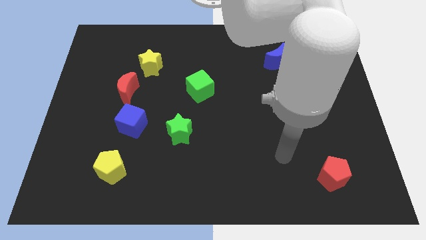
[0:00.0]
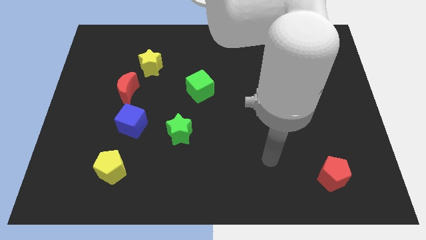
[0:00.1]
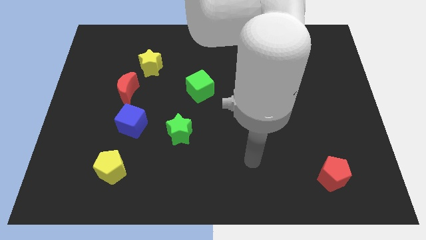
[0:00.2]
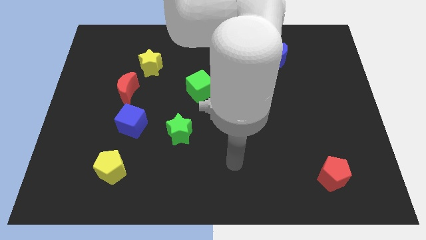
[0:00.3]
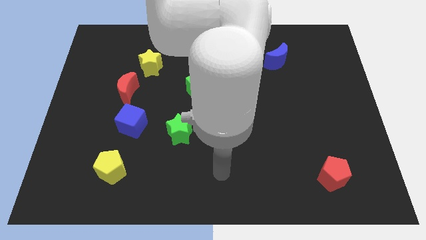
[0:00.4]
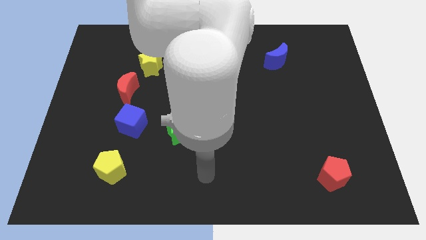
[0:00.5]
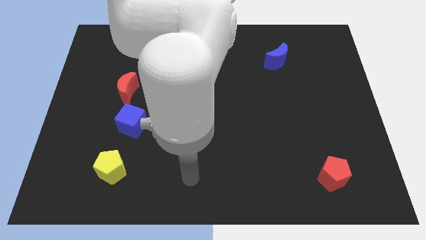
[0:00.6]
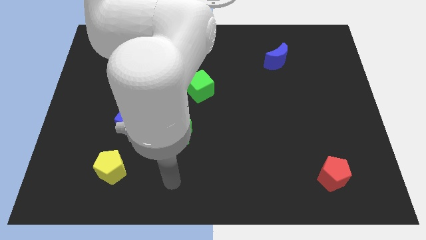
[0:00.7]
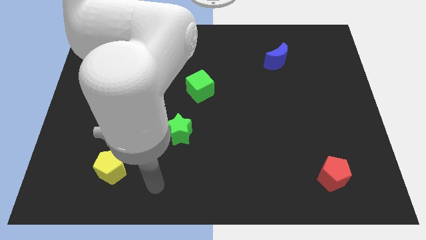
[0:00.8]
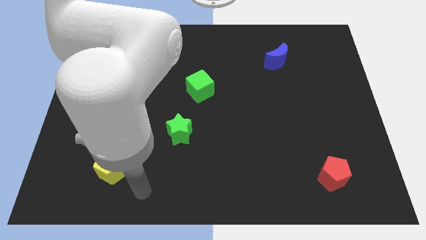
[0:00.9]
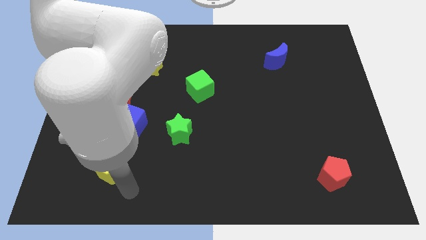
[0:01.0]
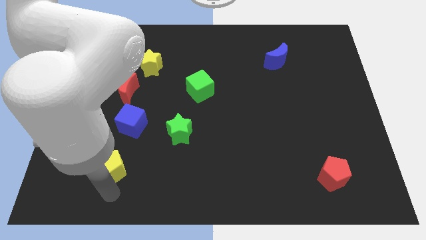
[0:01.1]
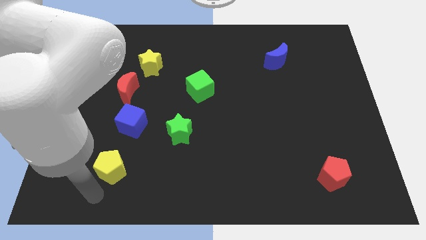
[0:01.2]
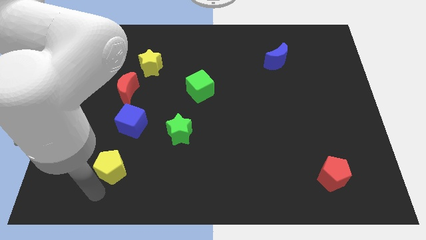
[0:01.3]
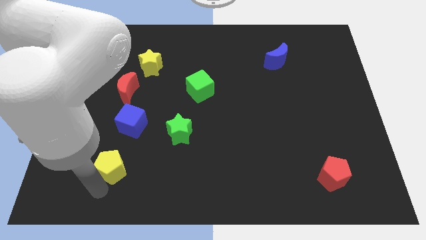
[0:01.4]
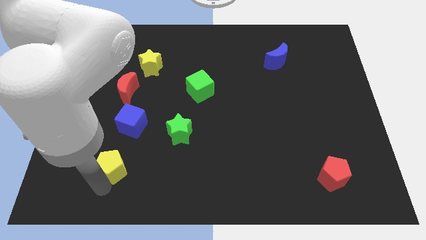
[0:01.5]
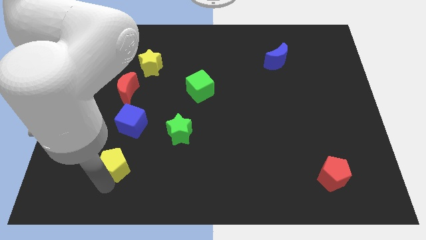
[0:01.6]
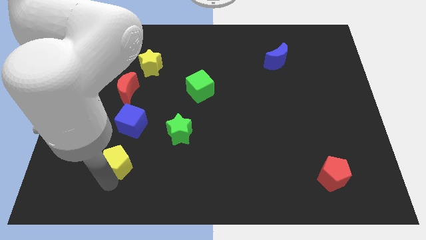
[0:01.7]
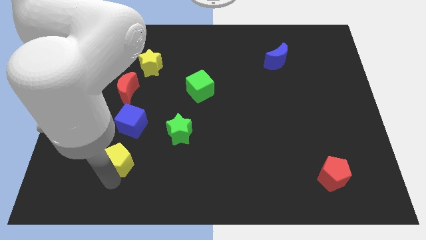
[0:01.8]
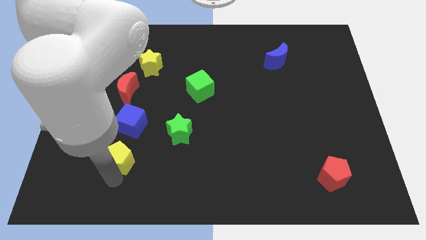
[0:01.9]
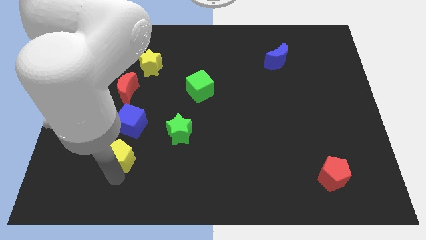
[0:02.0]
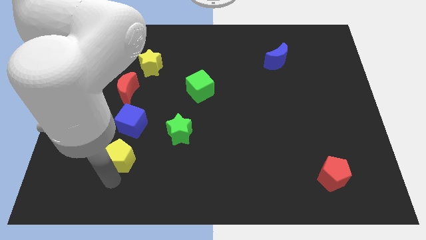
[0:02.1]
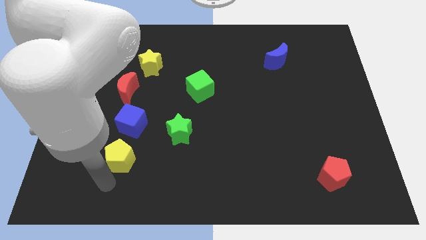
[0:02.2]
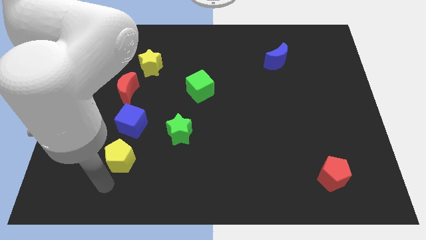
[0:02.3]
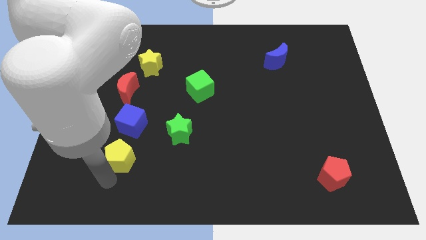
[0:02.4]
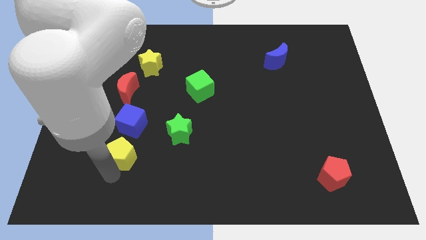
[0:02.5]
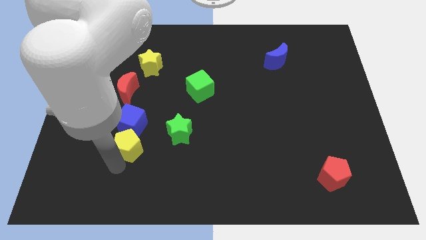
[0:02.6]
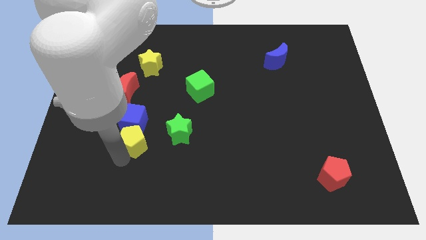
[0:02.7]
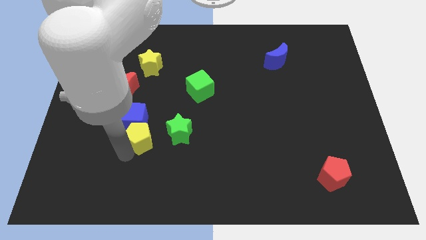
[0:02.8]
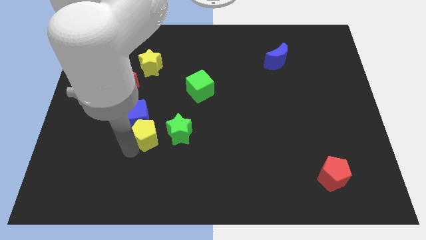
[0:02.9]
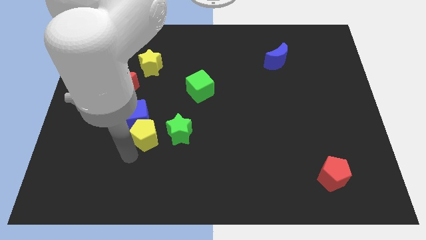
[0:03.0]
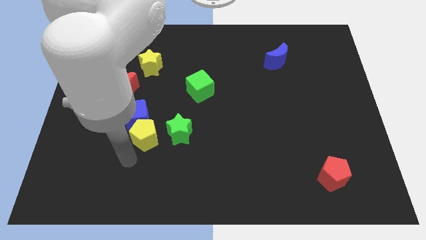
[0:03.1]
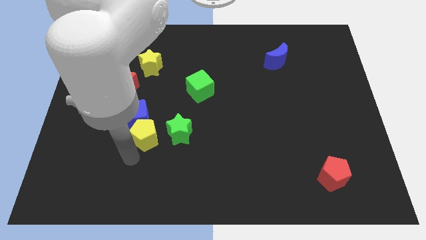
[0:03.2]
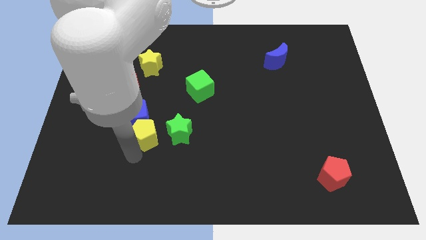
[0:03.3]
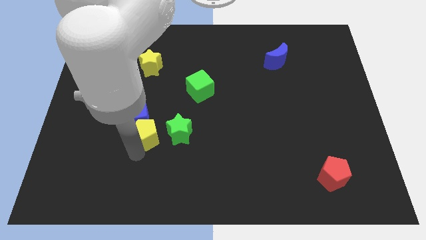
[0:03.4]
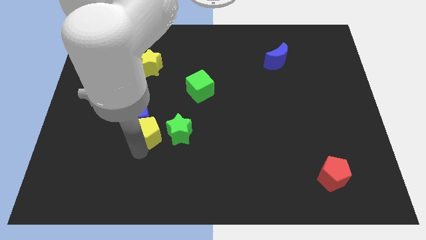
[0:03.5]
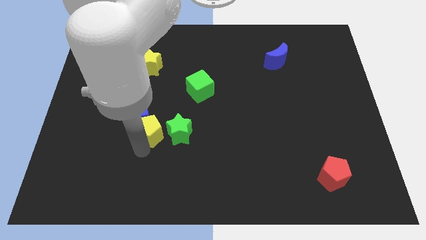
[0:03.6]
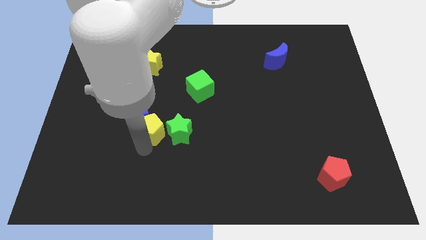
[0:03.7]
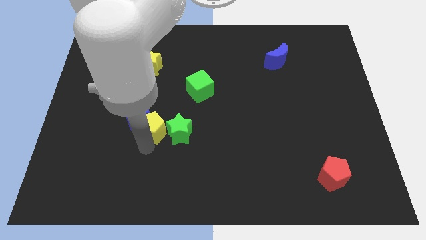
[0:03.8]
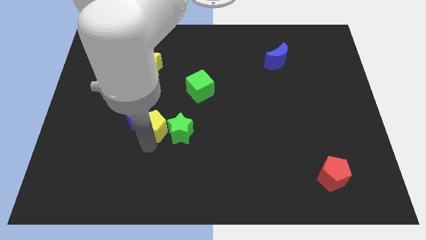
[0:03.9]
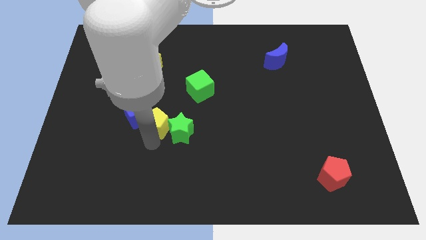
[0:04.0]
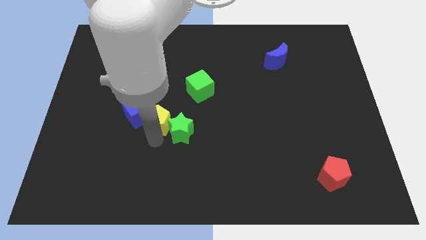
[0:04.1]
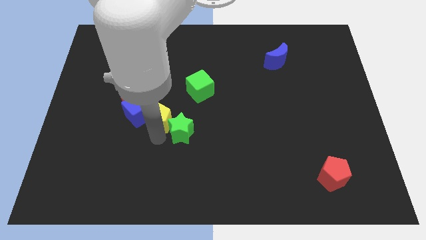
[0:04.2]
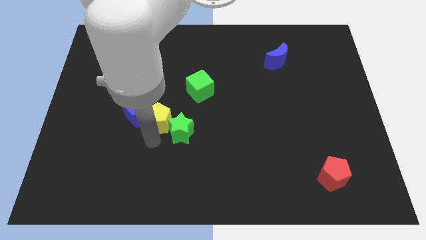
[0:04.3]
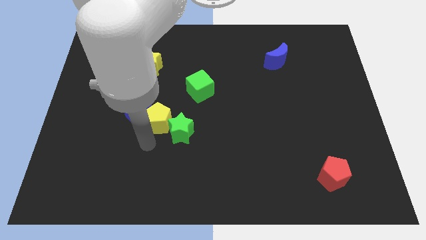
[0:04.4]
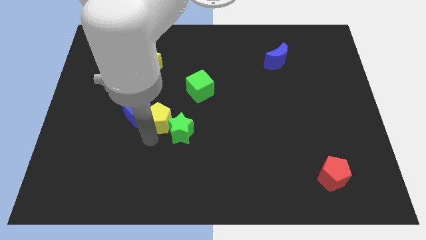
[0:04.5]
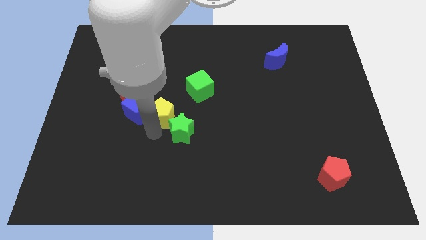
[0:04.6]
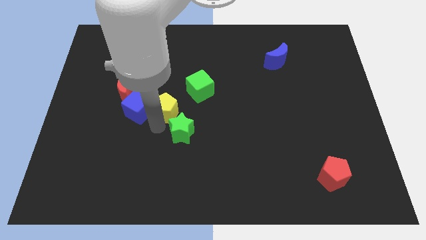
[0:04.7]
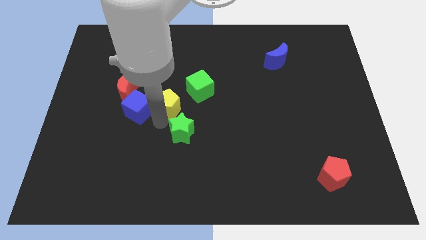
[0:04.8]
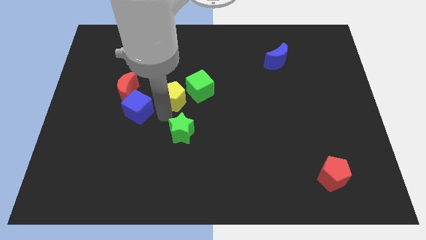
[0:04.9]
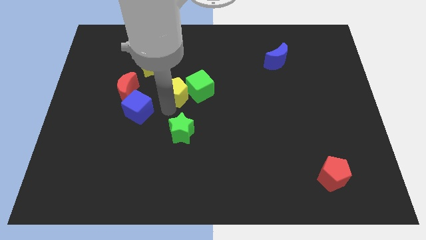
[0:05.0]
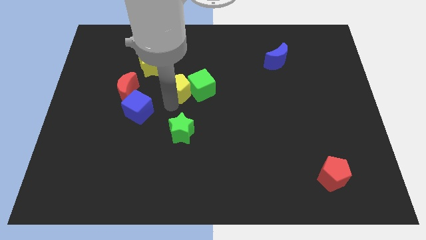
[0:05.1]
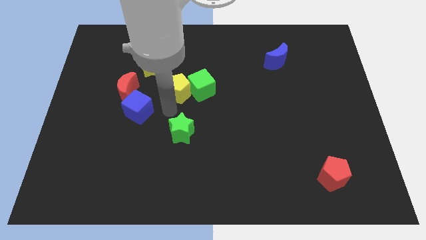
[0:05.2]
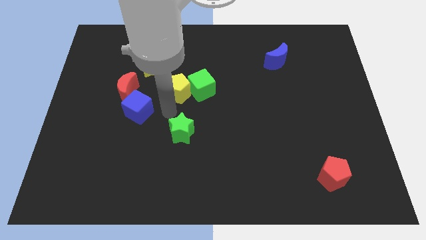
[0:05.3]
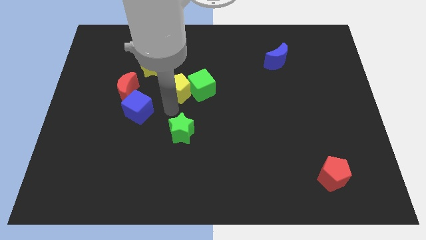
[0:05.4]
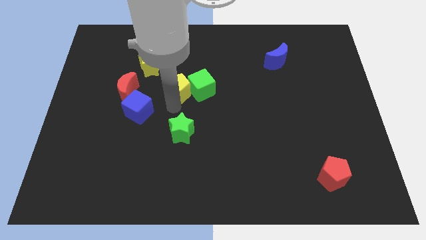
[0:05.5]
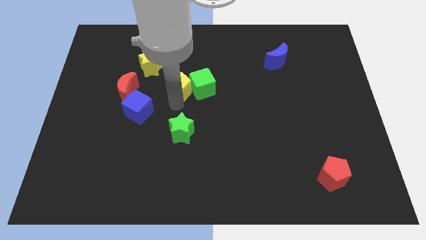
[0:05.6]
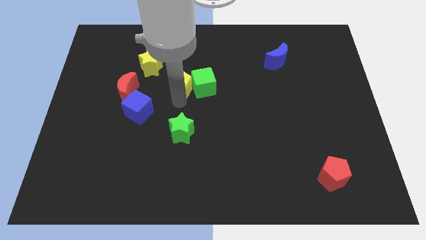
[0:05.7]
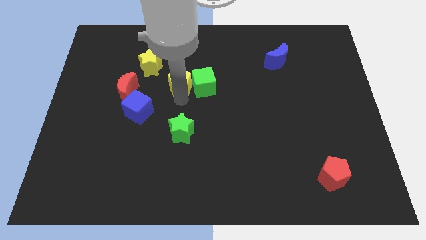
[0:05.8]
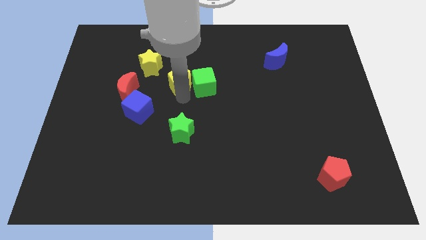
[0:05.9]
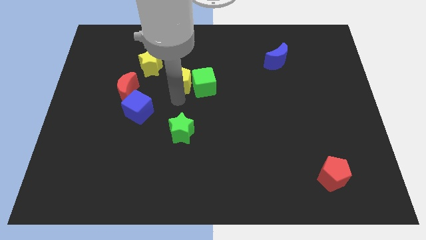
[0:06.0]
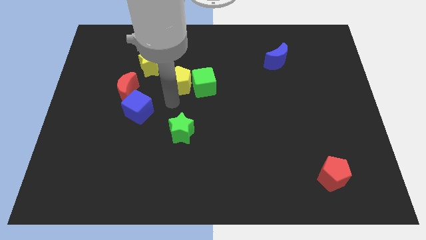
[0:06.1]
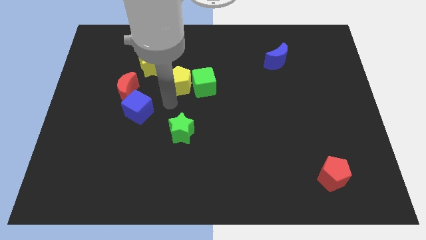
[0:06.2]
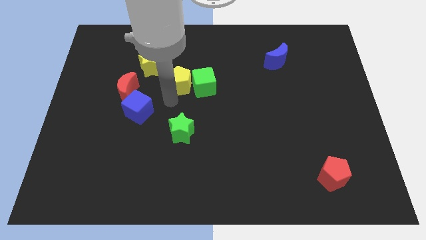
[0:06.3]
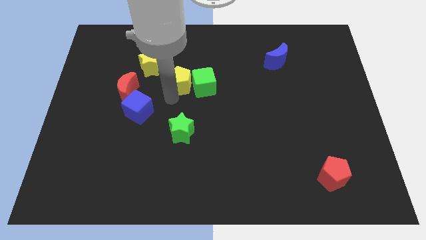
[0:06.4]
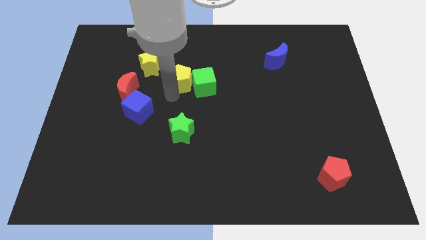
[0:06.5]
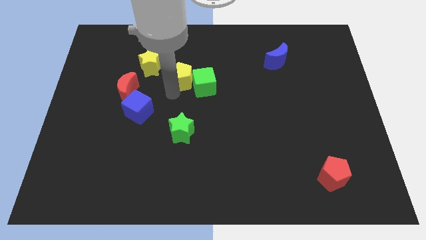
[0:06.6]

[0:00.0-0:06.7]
slide the yellow pentagon to the right of the yellow star

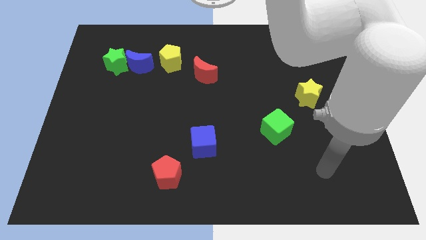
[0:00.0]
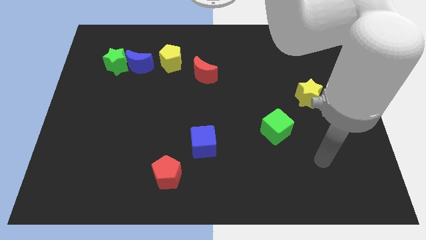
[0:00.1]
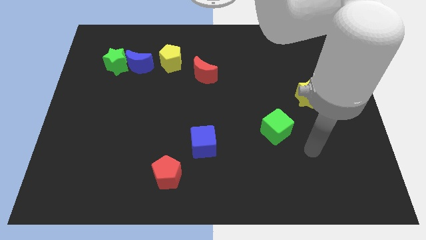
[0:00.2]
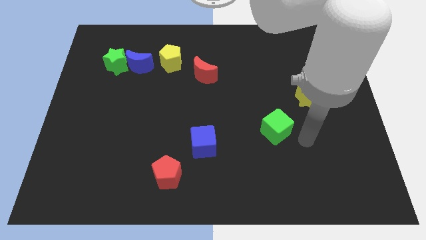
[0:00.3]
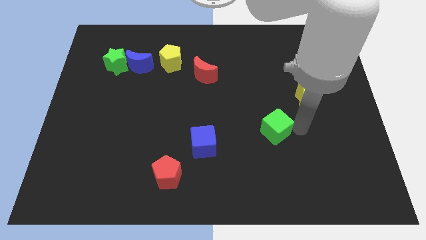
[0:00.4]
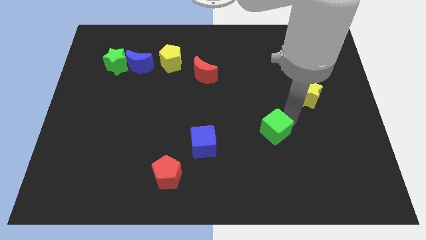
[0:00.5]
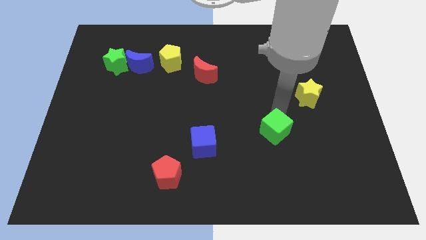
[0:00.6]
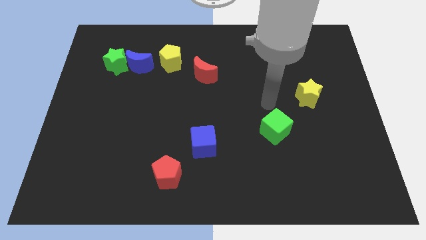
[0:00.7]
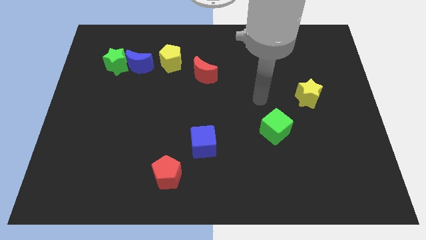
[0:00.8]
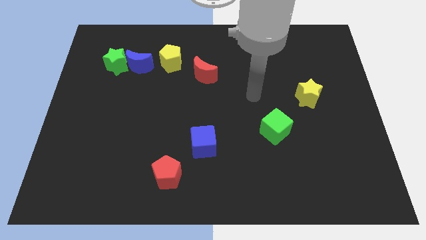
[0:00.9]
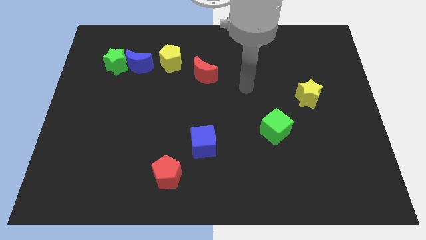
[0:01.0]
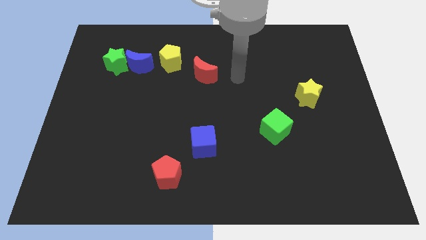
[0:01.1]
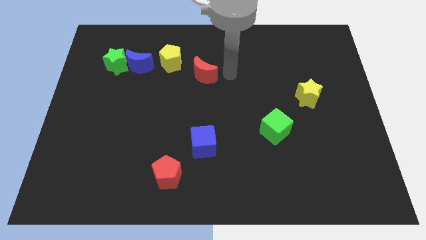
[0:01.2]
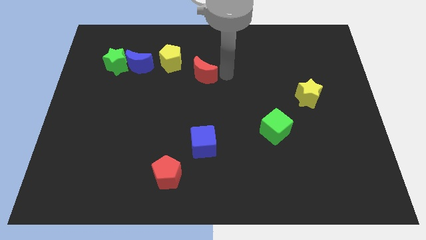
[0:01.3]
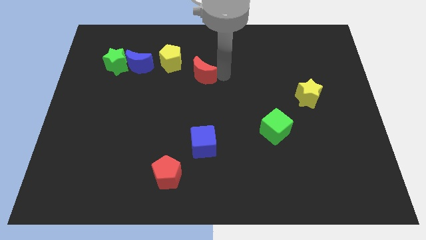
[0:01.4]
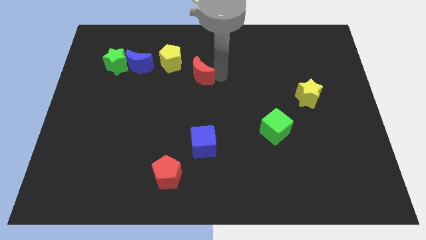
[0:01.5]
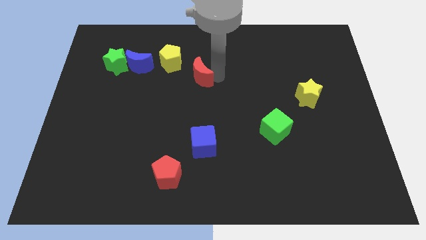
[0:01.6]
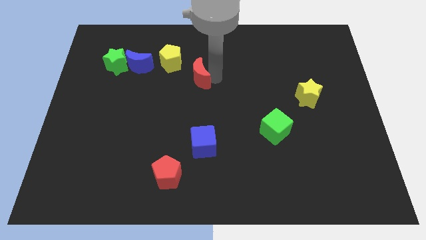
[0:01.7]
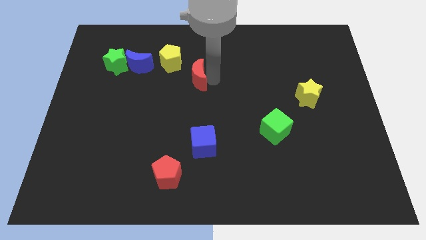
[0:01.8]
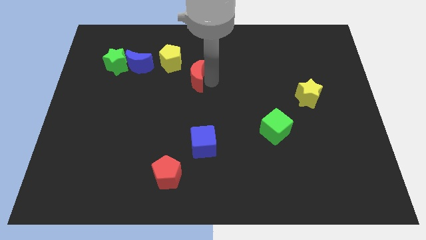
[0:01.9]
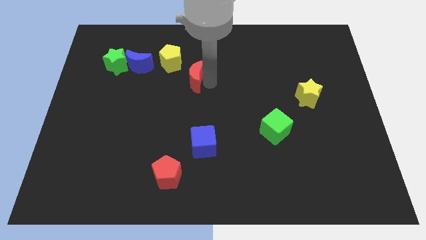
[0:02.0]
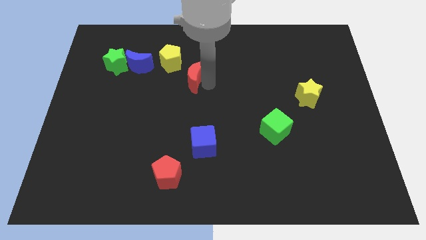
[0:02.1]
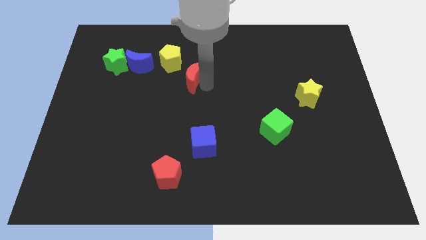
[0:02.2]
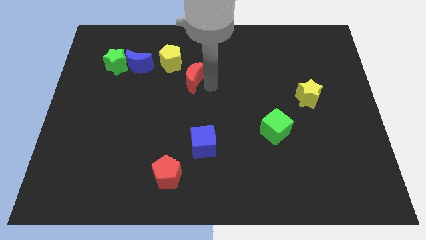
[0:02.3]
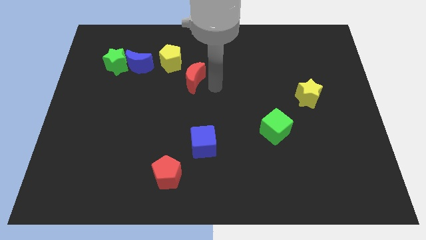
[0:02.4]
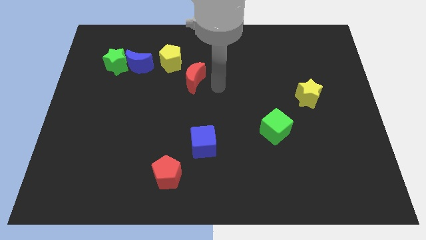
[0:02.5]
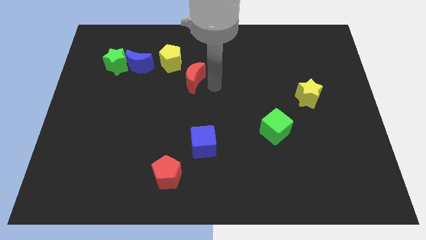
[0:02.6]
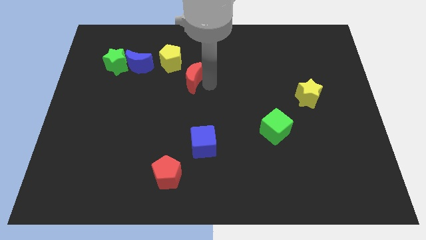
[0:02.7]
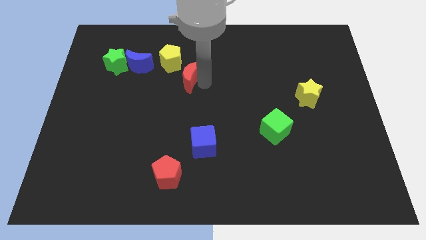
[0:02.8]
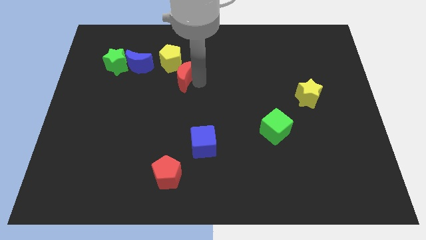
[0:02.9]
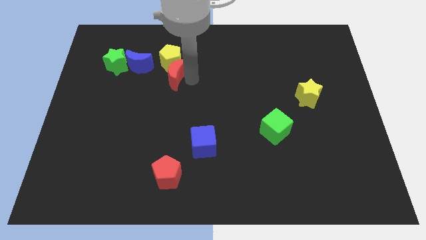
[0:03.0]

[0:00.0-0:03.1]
move the red moon diagonally down and to the left of the yellow pentagon
